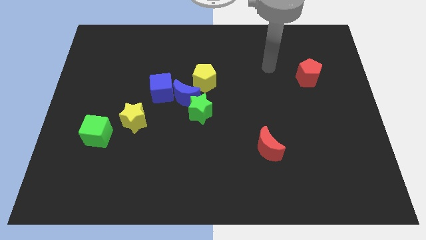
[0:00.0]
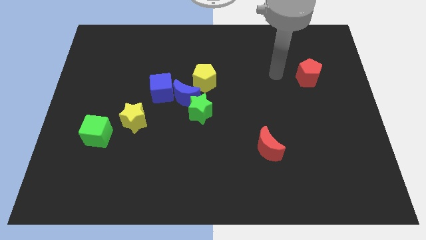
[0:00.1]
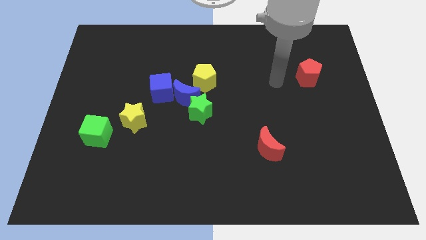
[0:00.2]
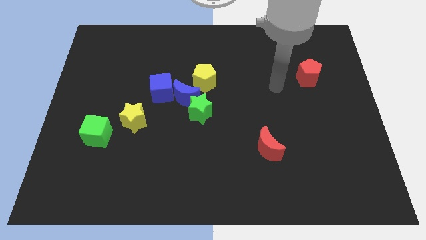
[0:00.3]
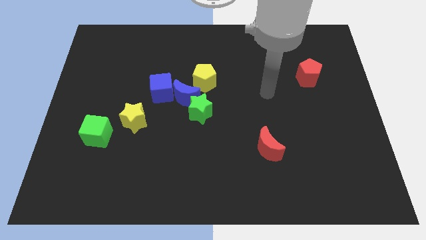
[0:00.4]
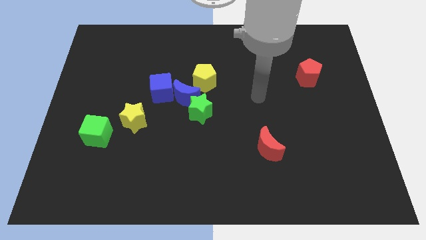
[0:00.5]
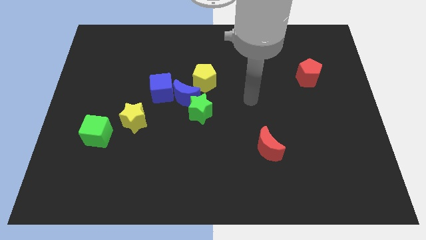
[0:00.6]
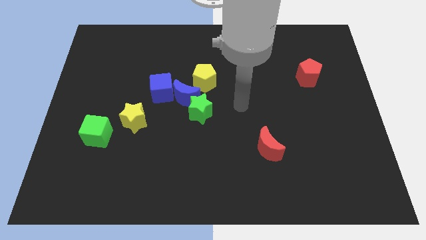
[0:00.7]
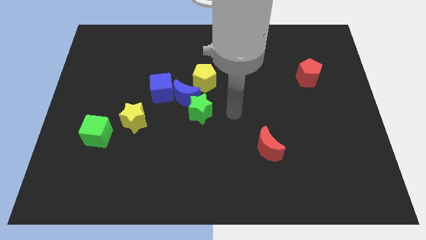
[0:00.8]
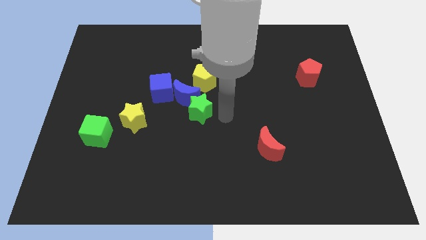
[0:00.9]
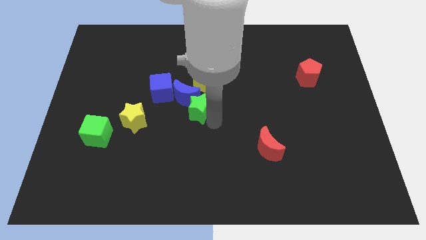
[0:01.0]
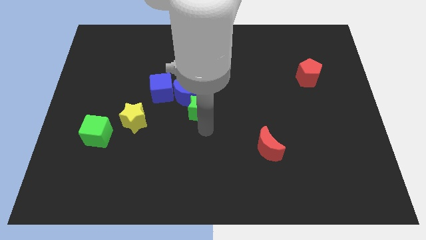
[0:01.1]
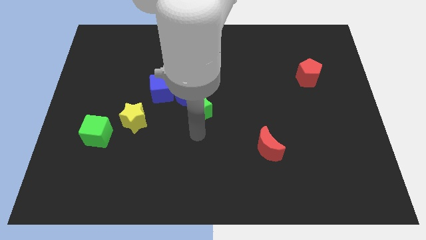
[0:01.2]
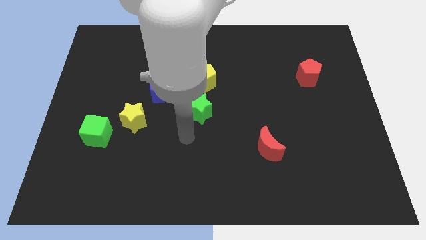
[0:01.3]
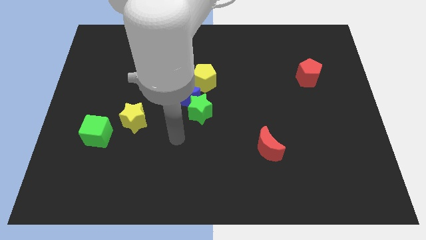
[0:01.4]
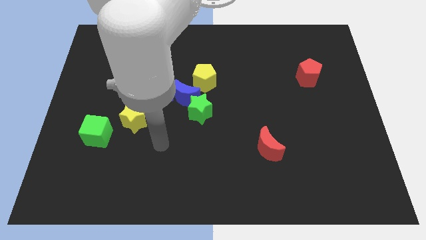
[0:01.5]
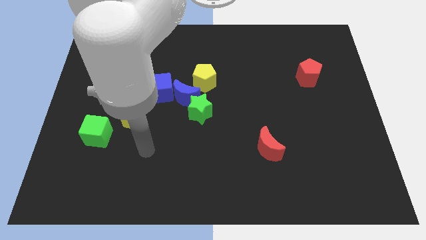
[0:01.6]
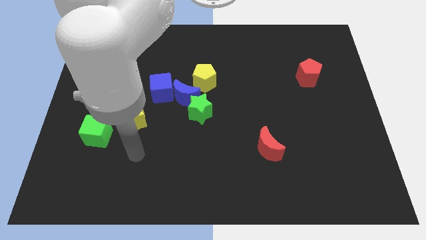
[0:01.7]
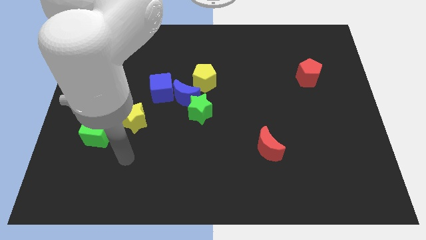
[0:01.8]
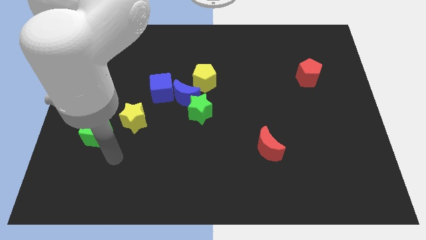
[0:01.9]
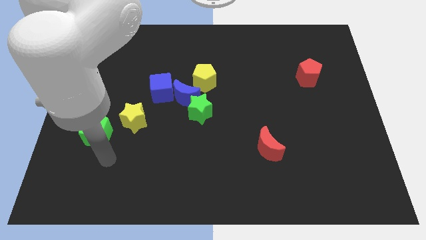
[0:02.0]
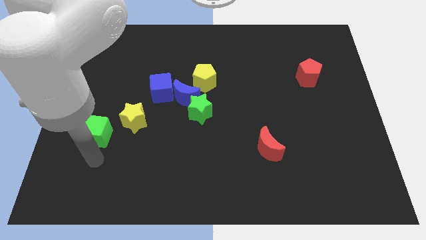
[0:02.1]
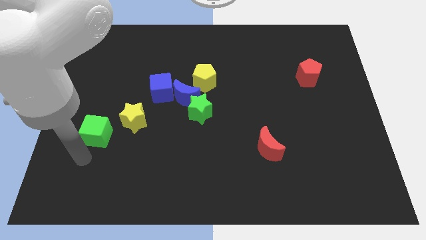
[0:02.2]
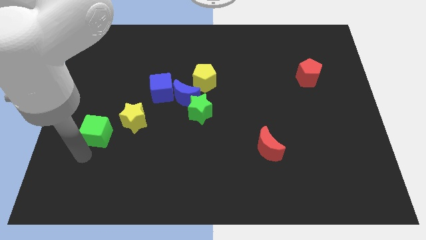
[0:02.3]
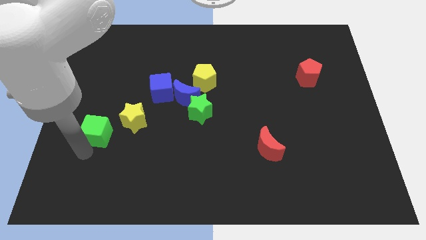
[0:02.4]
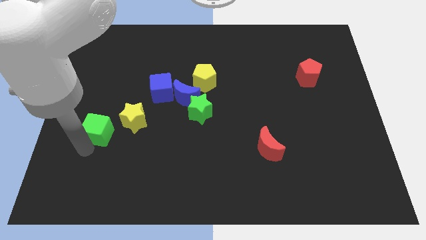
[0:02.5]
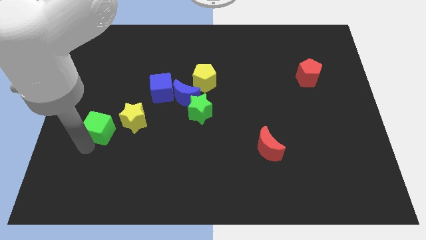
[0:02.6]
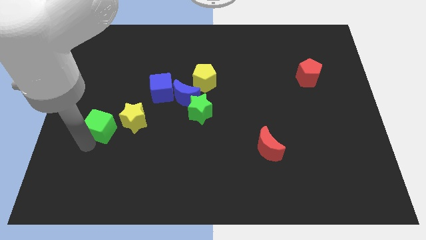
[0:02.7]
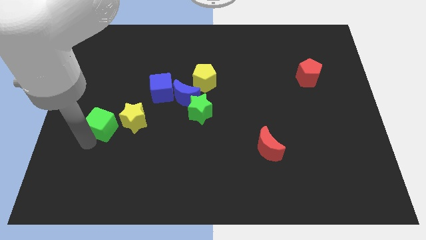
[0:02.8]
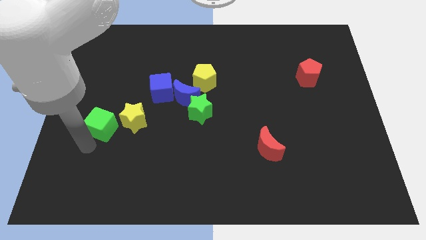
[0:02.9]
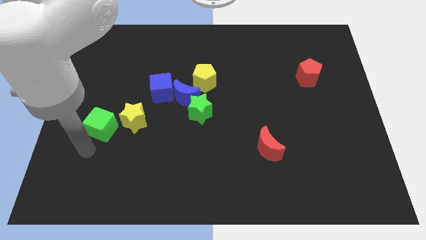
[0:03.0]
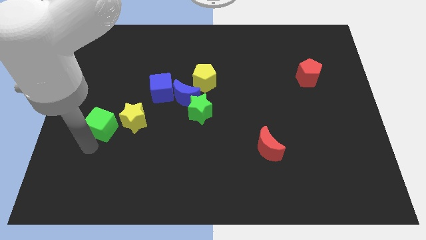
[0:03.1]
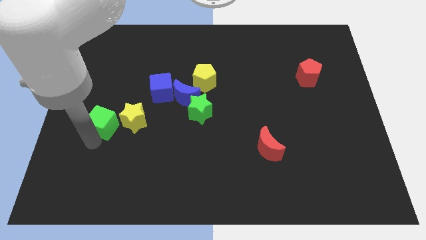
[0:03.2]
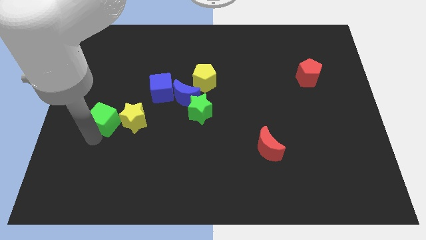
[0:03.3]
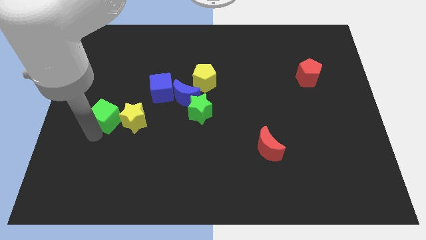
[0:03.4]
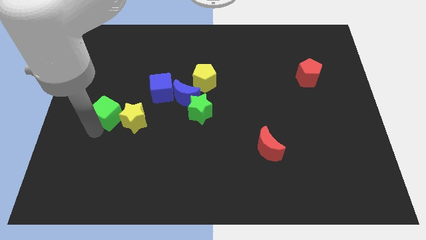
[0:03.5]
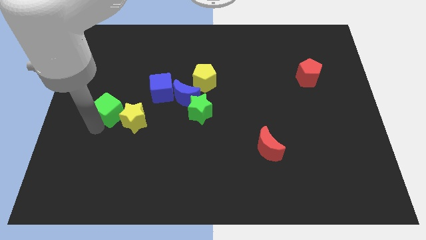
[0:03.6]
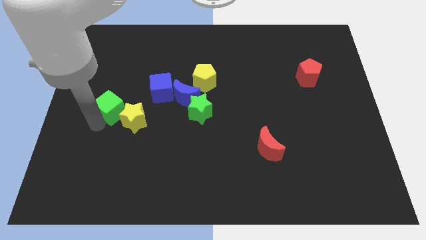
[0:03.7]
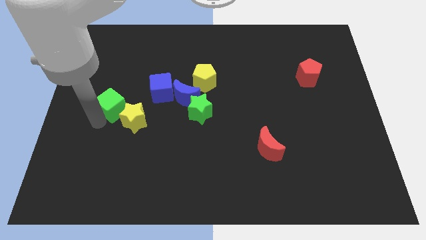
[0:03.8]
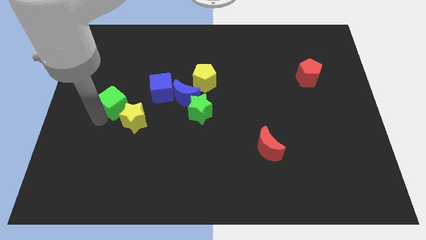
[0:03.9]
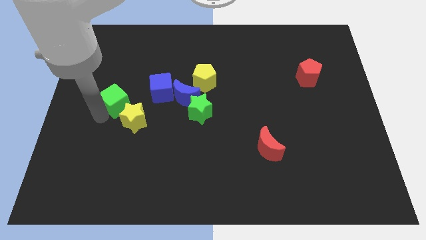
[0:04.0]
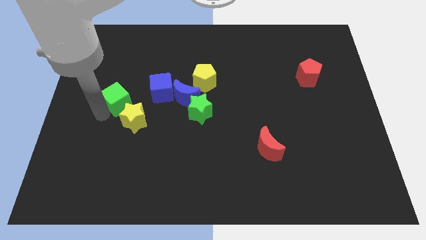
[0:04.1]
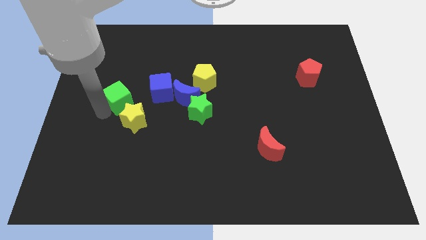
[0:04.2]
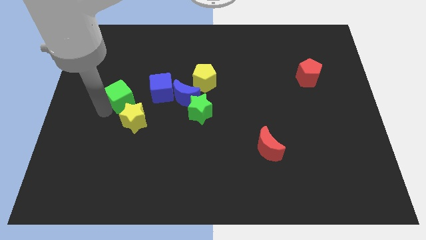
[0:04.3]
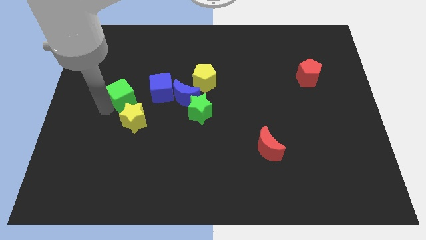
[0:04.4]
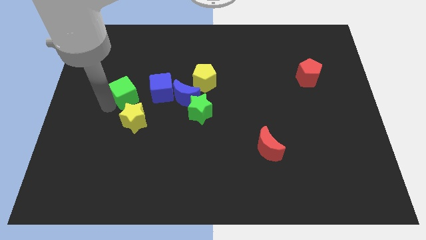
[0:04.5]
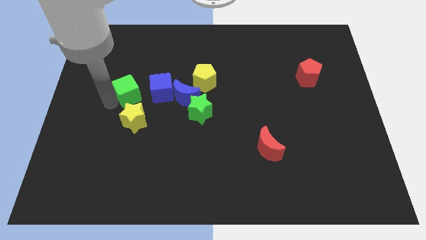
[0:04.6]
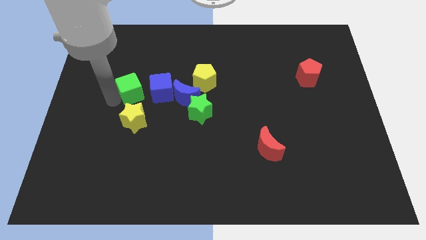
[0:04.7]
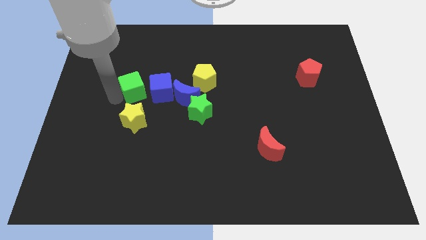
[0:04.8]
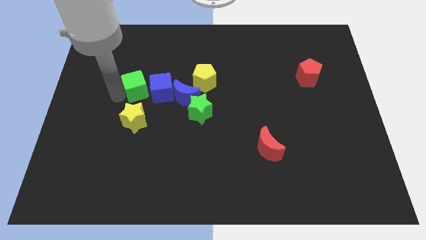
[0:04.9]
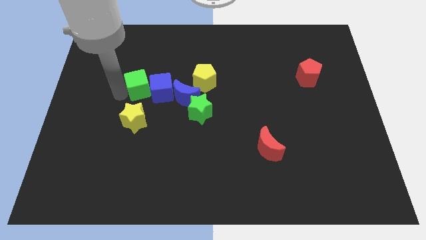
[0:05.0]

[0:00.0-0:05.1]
push the green cube towards the blue cube

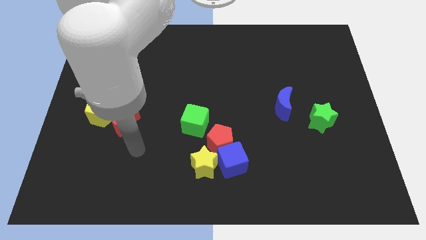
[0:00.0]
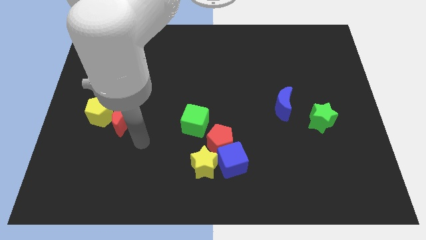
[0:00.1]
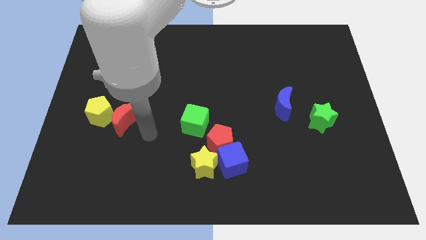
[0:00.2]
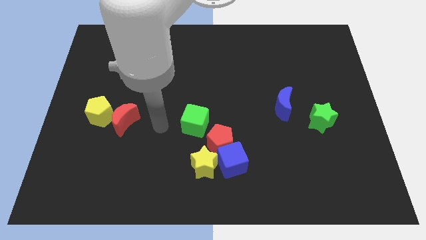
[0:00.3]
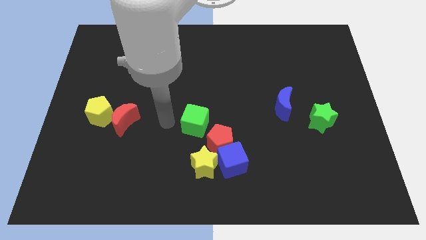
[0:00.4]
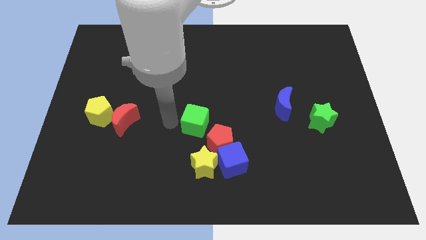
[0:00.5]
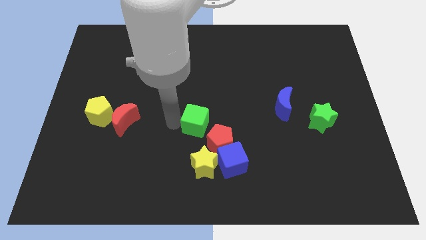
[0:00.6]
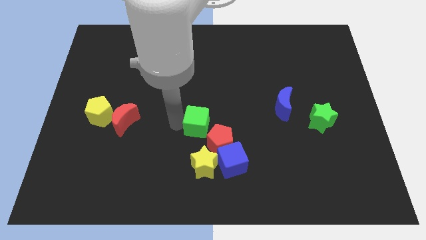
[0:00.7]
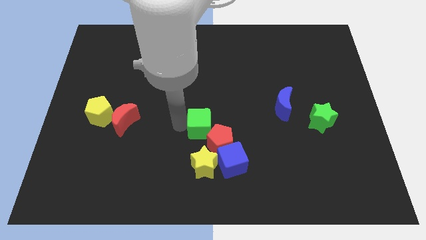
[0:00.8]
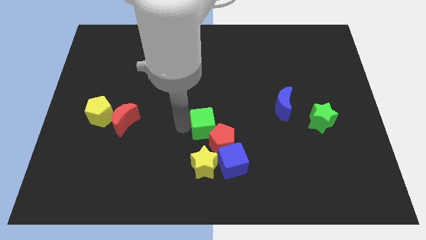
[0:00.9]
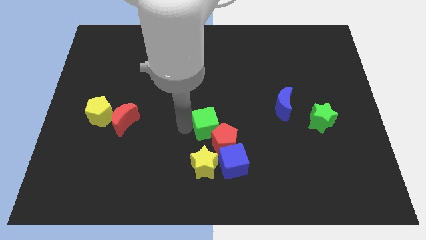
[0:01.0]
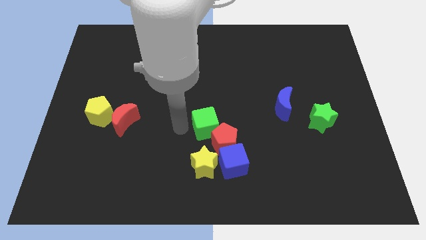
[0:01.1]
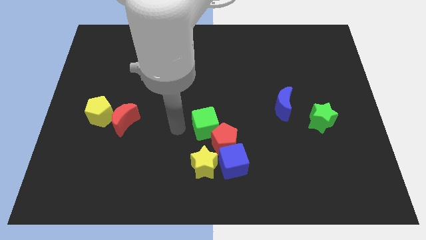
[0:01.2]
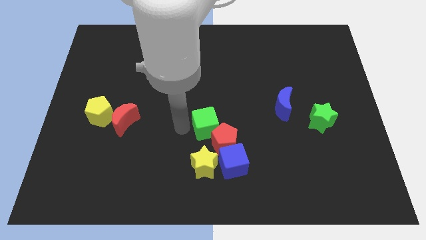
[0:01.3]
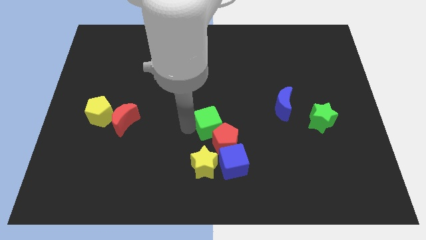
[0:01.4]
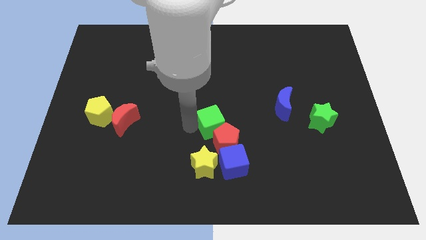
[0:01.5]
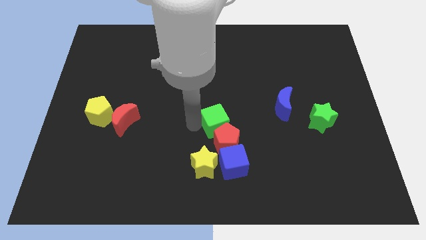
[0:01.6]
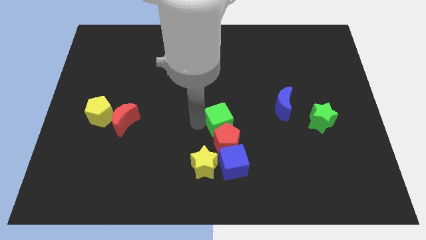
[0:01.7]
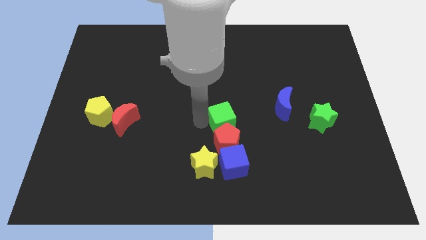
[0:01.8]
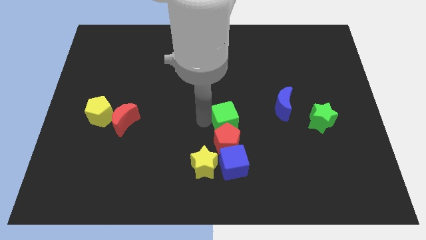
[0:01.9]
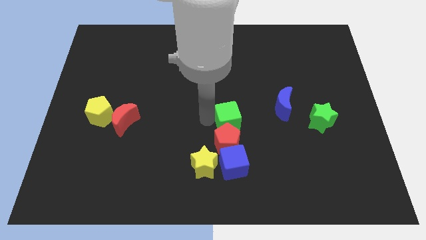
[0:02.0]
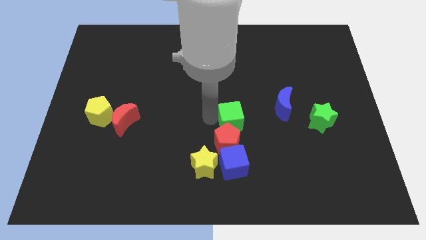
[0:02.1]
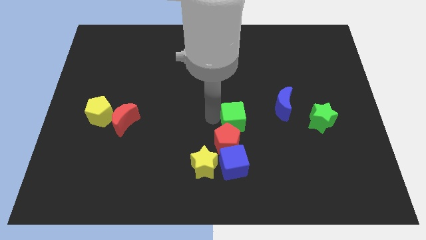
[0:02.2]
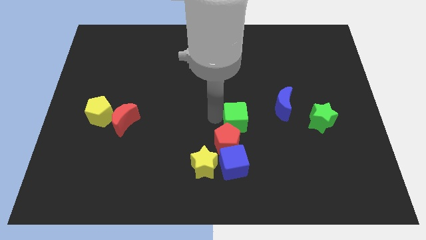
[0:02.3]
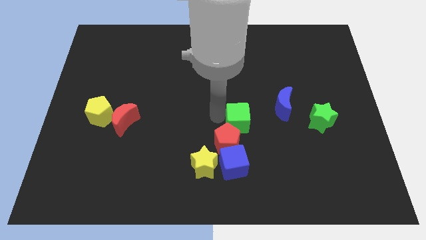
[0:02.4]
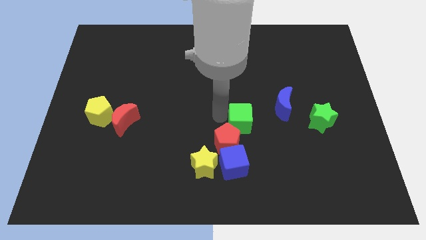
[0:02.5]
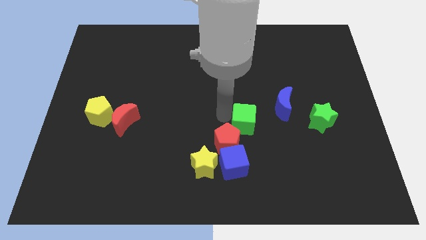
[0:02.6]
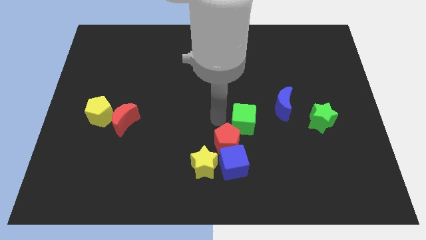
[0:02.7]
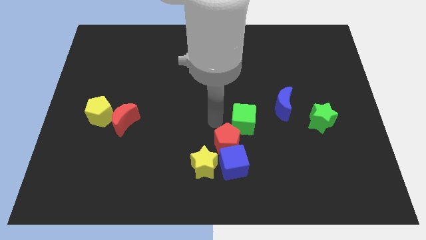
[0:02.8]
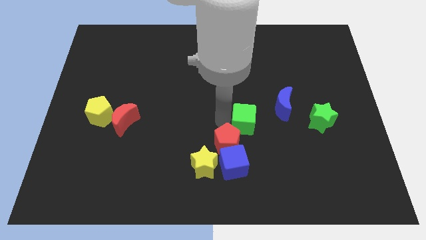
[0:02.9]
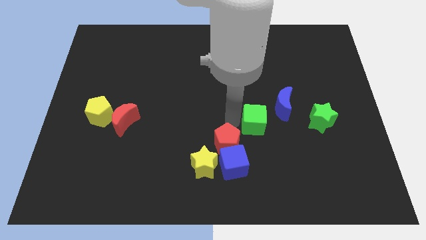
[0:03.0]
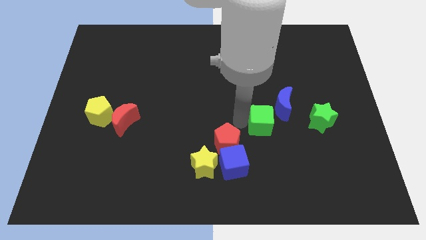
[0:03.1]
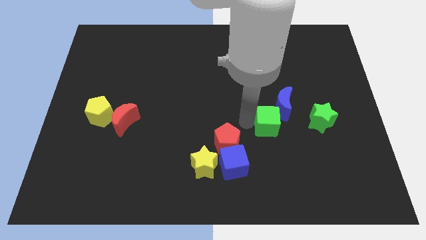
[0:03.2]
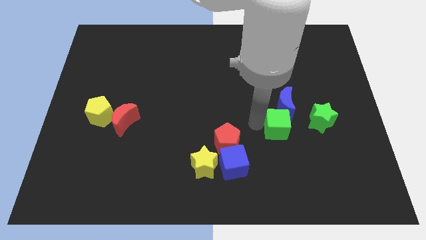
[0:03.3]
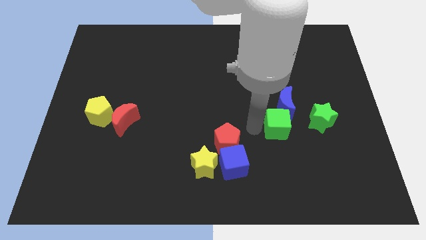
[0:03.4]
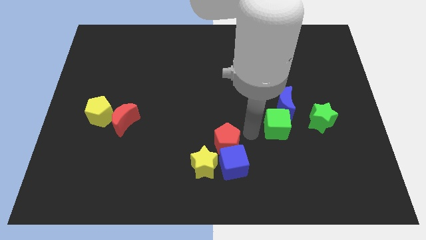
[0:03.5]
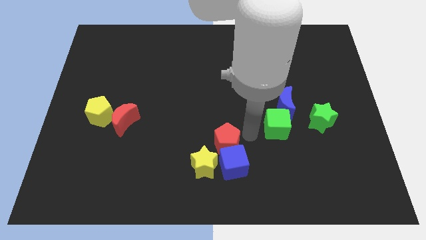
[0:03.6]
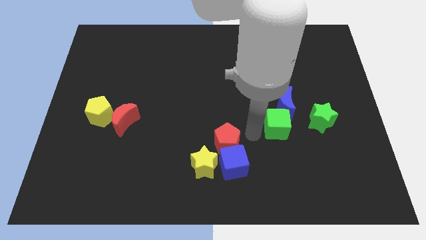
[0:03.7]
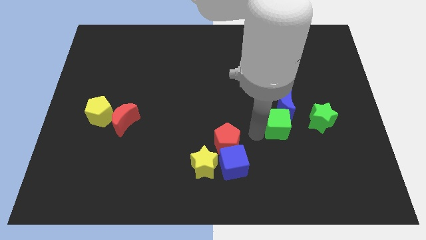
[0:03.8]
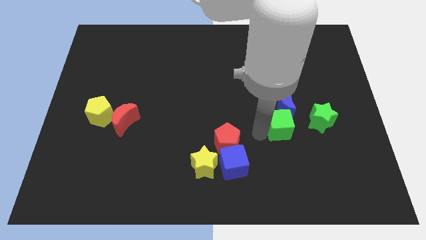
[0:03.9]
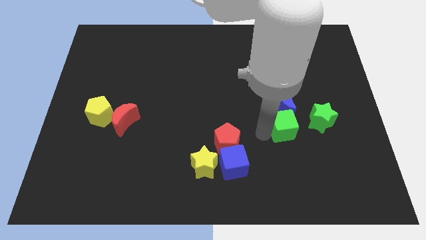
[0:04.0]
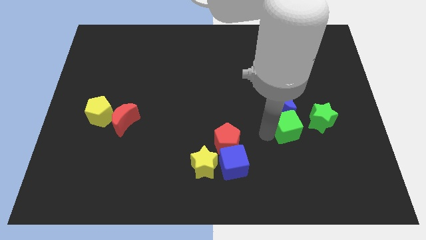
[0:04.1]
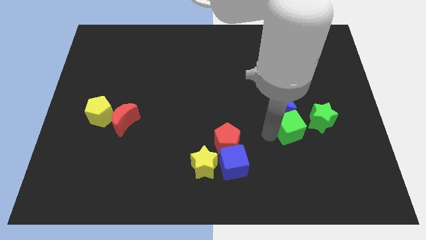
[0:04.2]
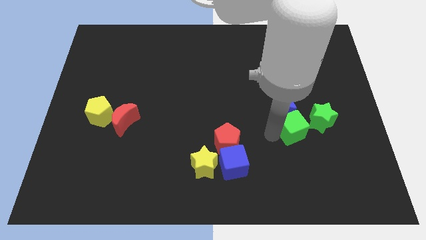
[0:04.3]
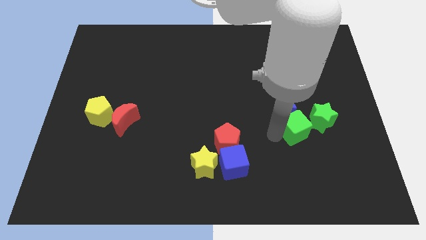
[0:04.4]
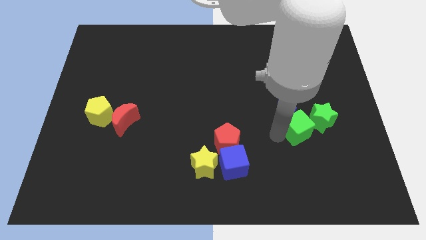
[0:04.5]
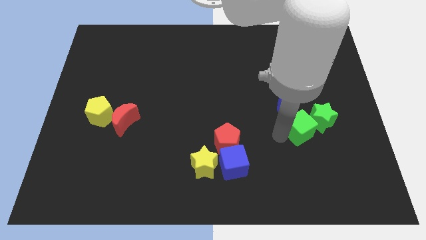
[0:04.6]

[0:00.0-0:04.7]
move the green cube next to the green star
